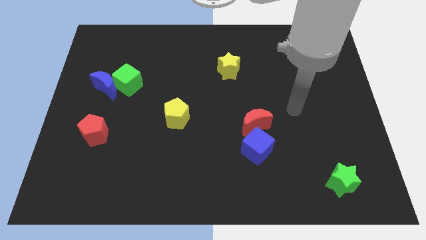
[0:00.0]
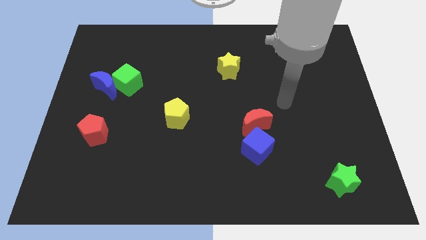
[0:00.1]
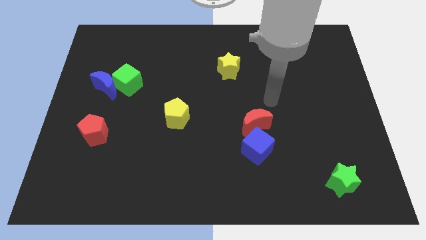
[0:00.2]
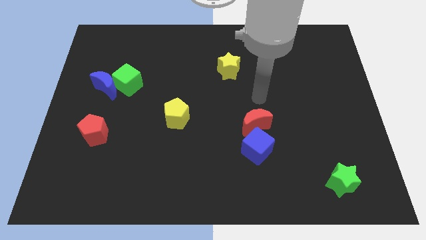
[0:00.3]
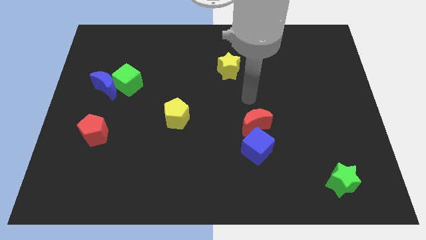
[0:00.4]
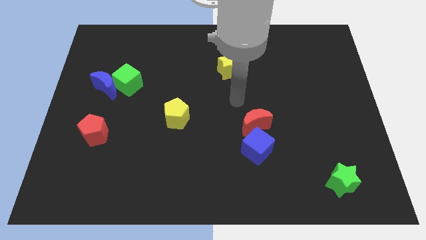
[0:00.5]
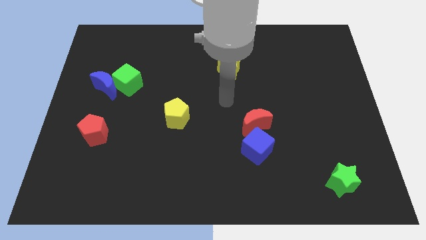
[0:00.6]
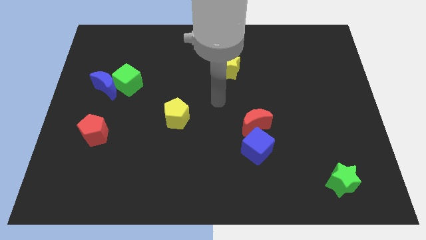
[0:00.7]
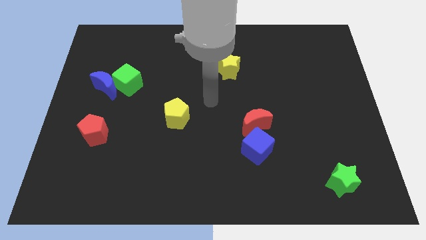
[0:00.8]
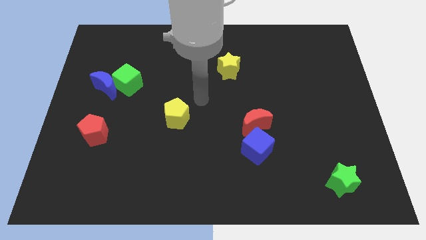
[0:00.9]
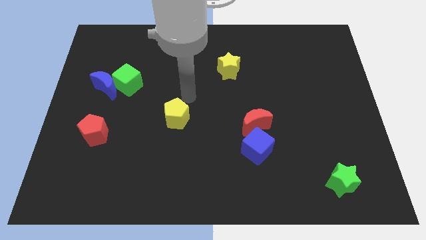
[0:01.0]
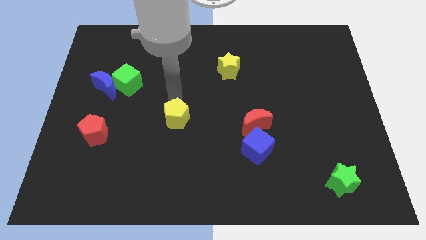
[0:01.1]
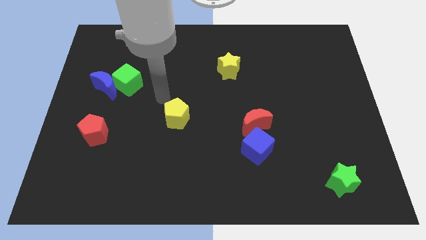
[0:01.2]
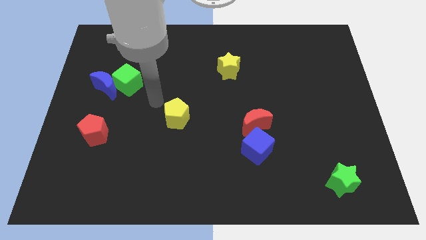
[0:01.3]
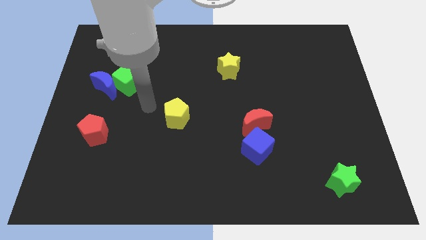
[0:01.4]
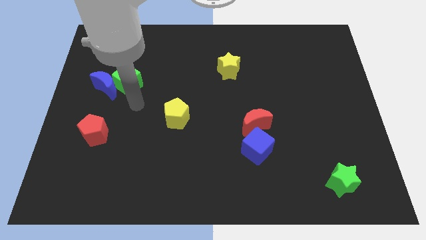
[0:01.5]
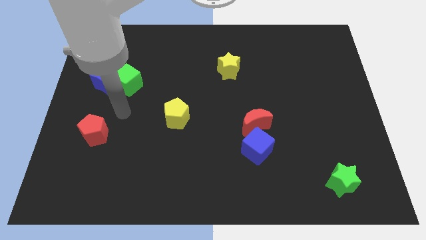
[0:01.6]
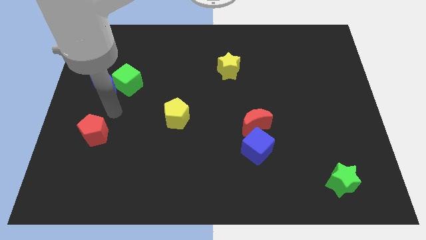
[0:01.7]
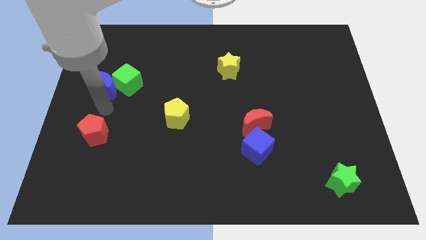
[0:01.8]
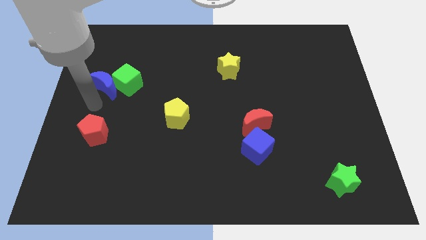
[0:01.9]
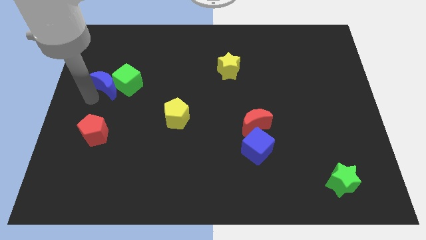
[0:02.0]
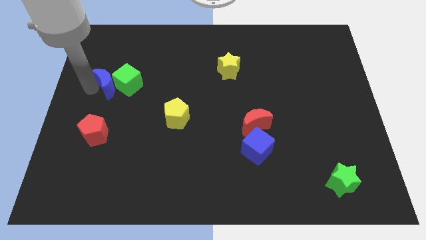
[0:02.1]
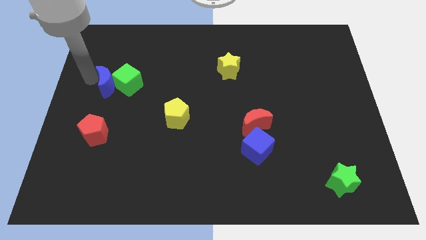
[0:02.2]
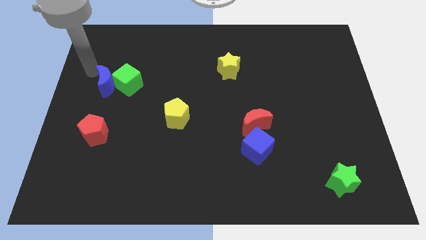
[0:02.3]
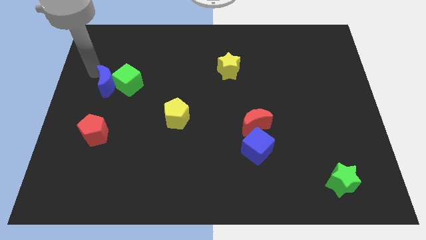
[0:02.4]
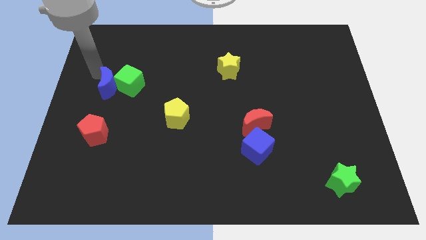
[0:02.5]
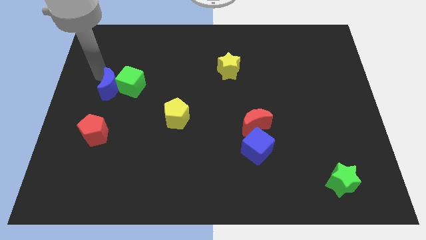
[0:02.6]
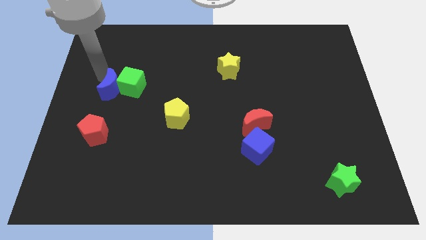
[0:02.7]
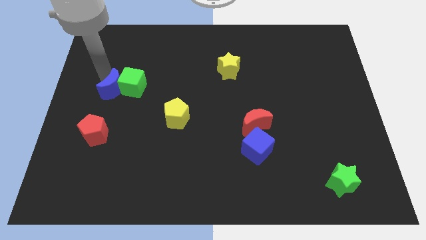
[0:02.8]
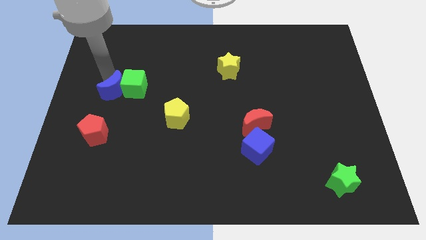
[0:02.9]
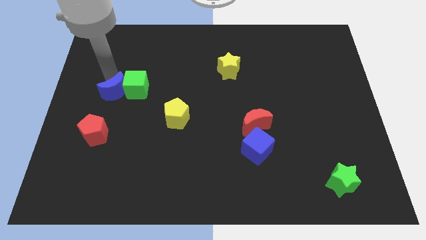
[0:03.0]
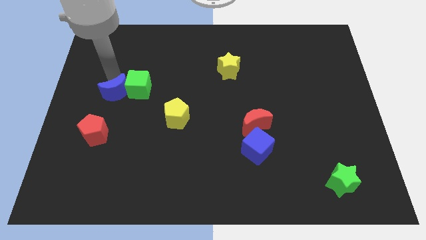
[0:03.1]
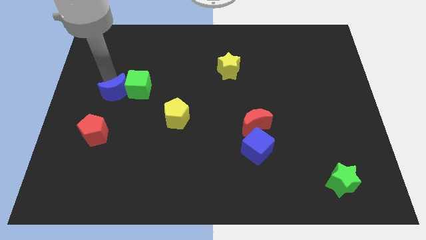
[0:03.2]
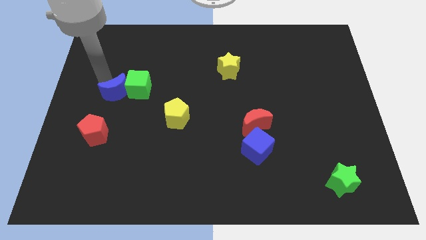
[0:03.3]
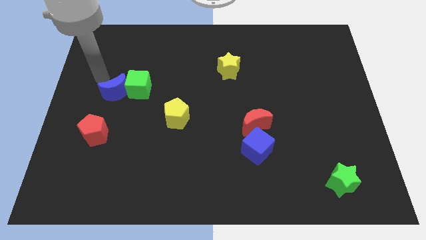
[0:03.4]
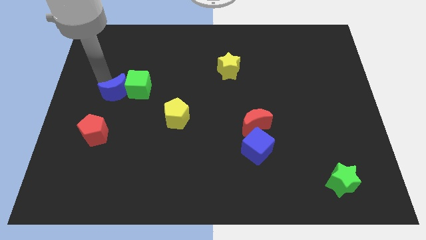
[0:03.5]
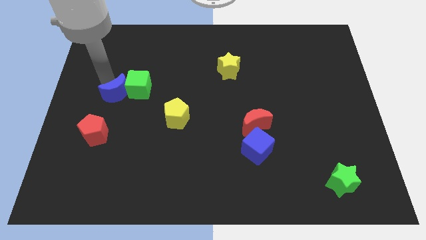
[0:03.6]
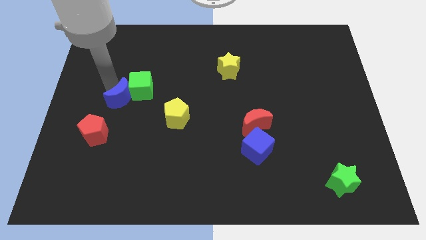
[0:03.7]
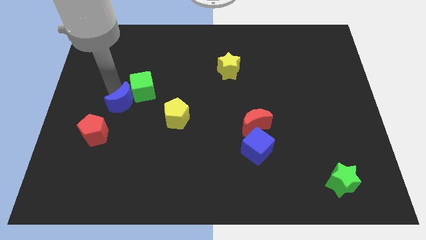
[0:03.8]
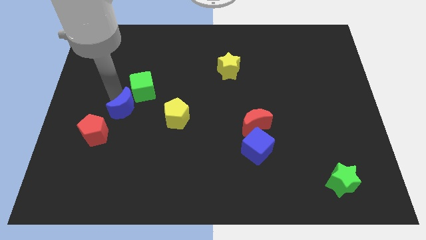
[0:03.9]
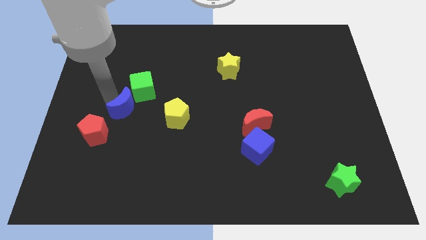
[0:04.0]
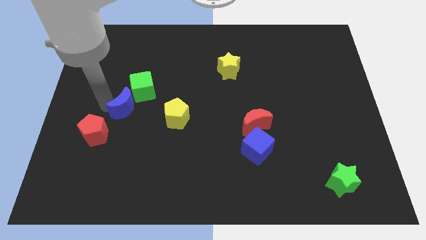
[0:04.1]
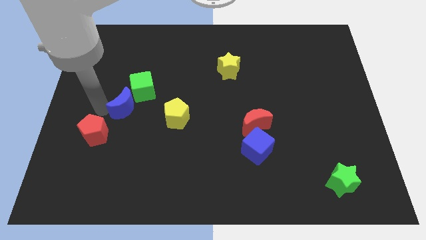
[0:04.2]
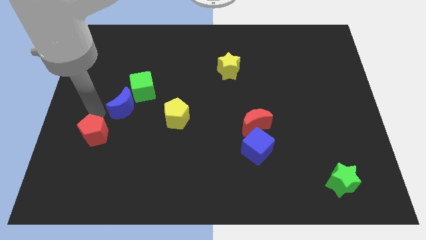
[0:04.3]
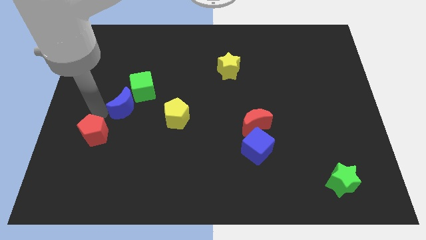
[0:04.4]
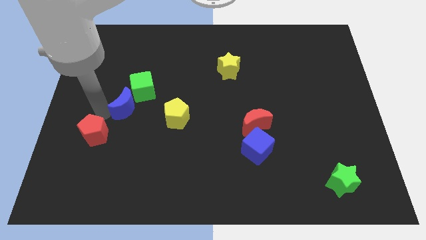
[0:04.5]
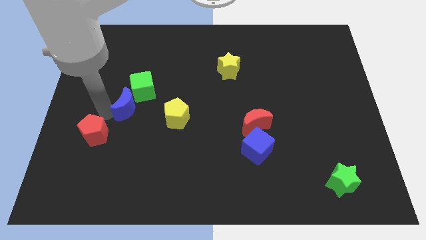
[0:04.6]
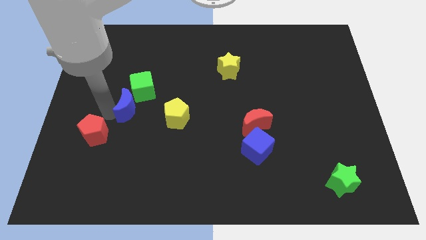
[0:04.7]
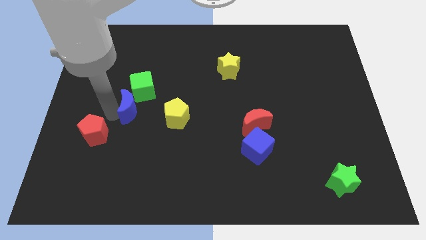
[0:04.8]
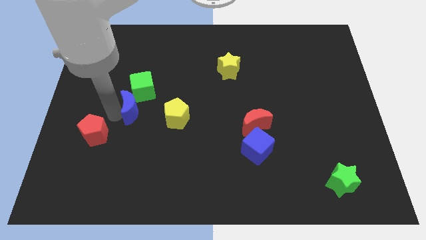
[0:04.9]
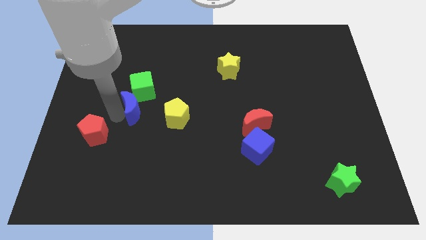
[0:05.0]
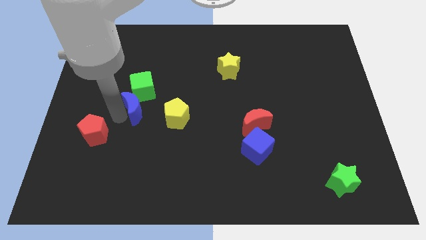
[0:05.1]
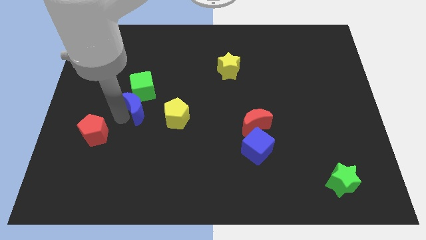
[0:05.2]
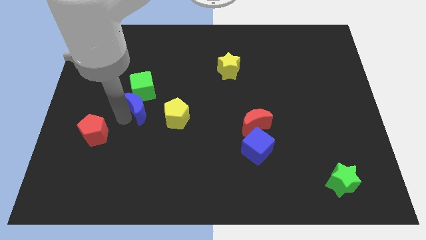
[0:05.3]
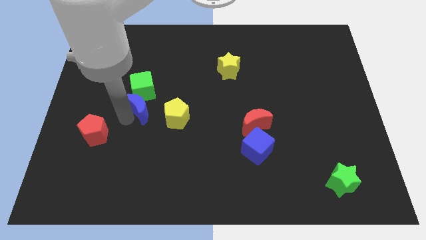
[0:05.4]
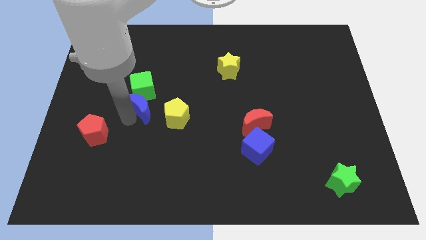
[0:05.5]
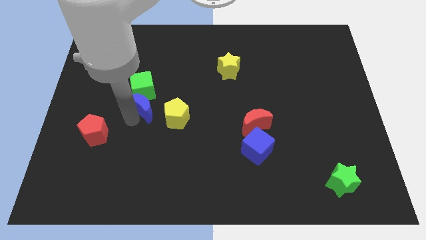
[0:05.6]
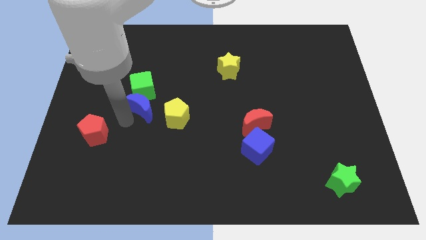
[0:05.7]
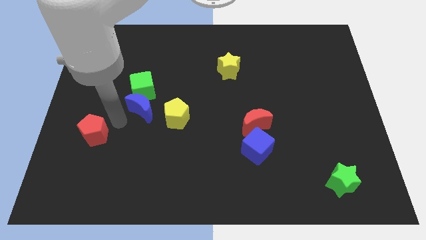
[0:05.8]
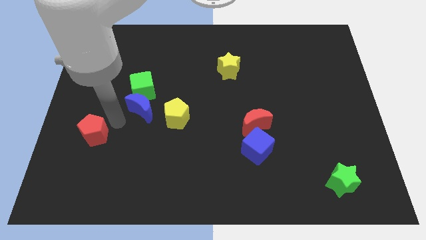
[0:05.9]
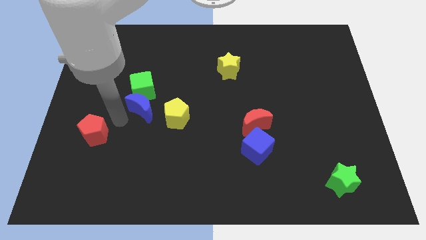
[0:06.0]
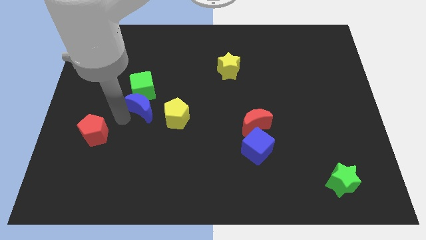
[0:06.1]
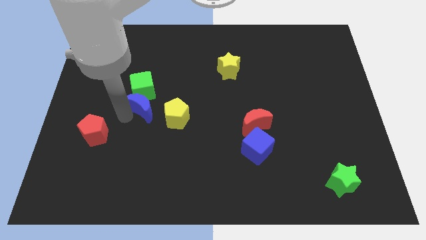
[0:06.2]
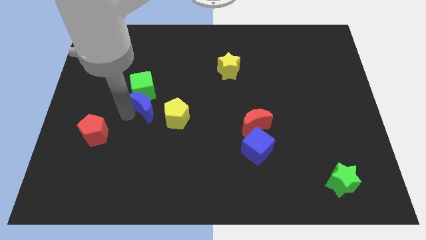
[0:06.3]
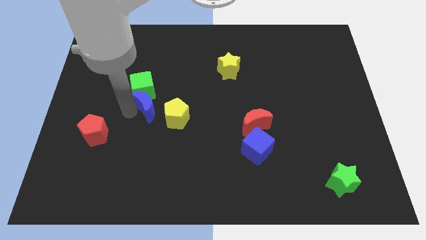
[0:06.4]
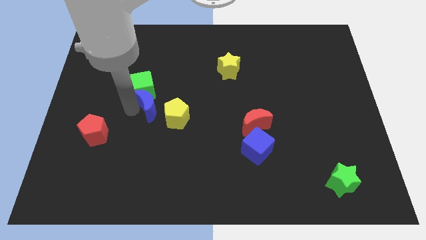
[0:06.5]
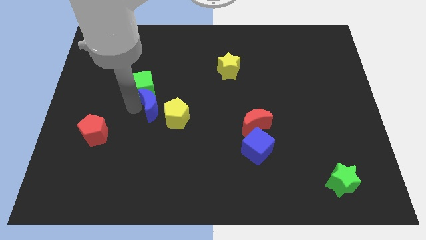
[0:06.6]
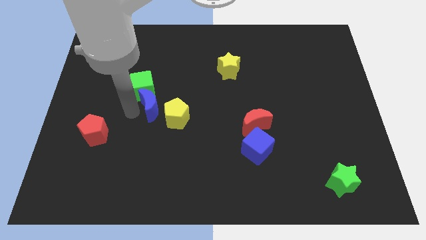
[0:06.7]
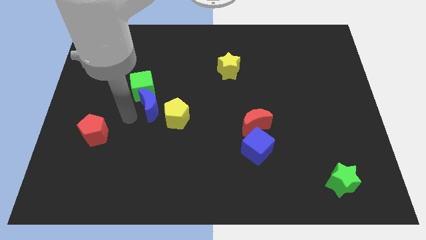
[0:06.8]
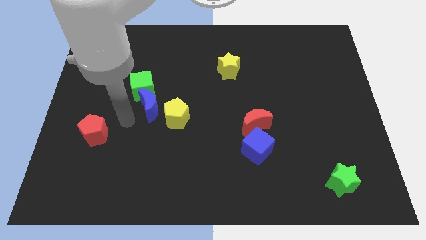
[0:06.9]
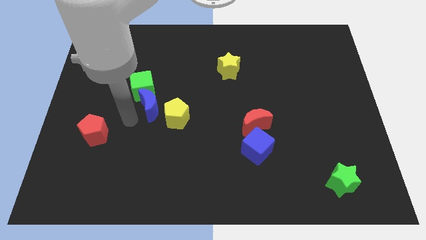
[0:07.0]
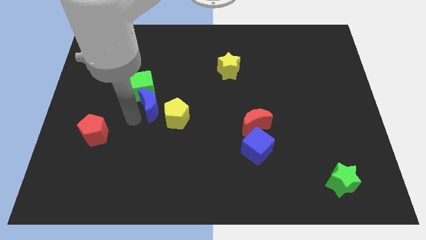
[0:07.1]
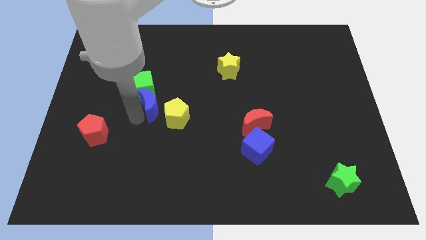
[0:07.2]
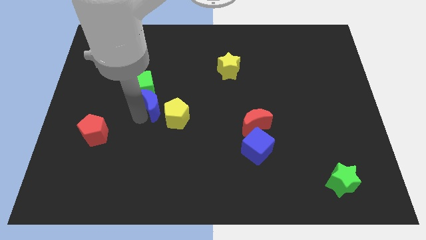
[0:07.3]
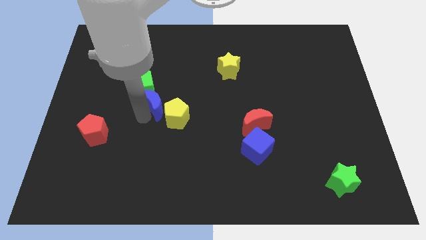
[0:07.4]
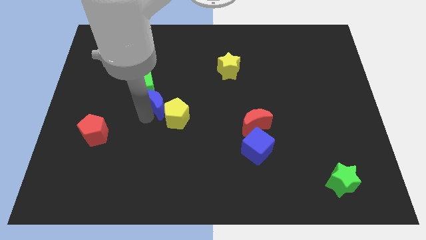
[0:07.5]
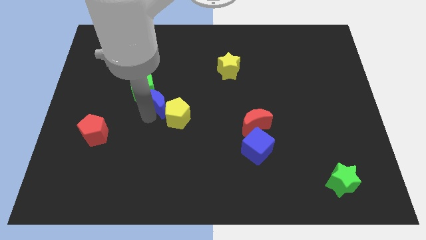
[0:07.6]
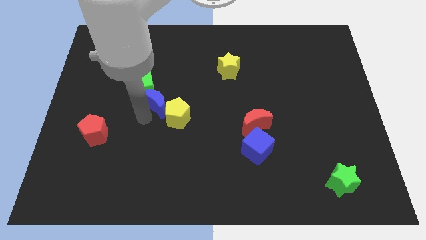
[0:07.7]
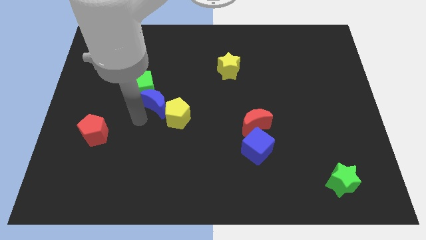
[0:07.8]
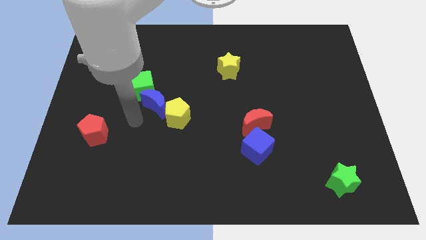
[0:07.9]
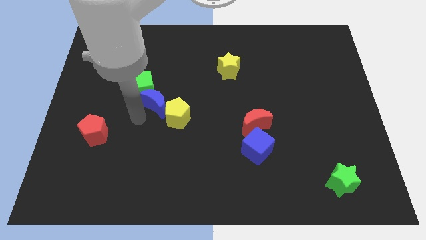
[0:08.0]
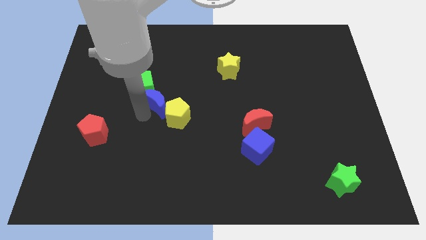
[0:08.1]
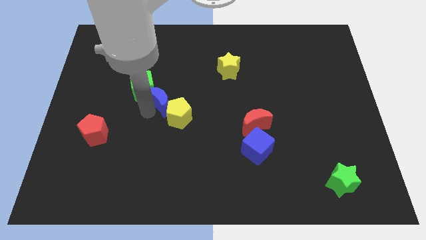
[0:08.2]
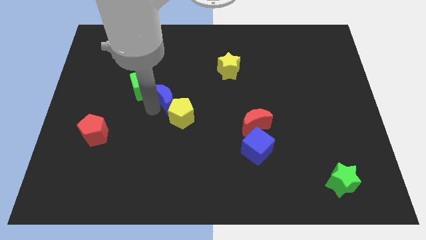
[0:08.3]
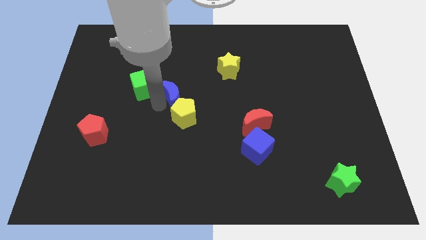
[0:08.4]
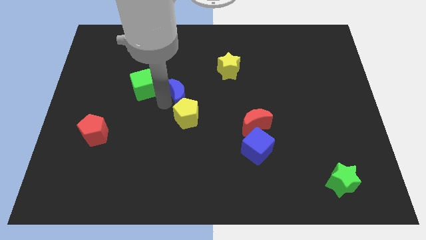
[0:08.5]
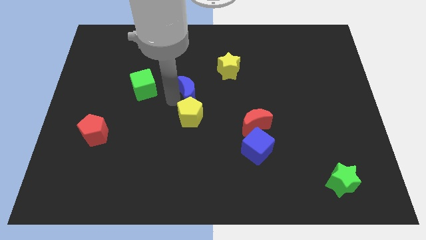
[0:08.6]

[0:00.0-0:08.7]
slide the blue moon to the bottom left of the yellow star
